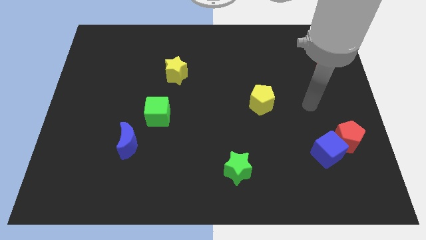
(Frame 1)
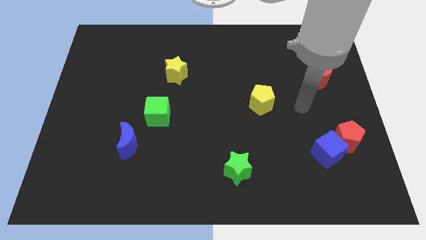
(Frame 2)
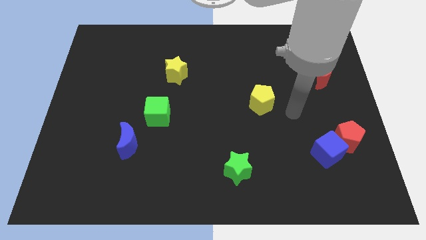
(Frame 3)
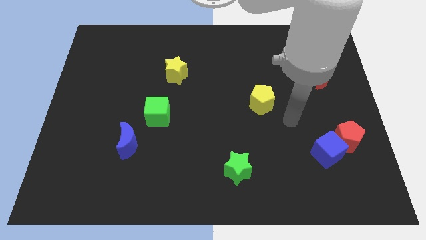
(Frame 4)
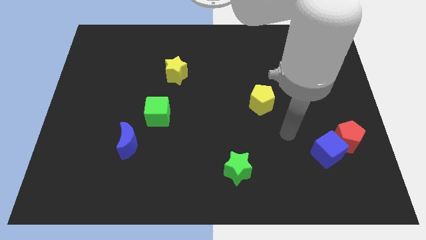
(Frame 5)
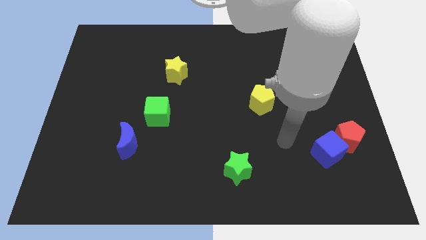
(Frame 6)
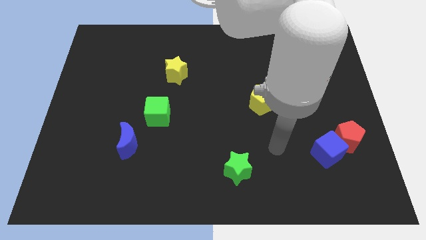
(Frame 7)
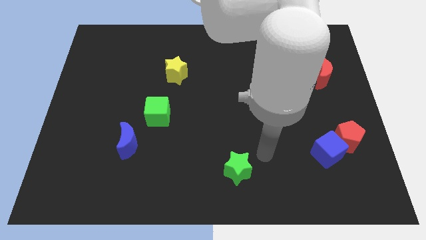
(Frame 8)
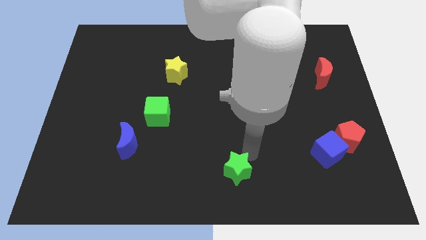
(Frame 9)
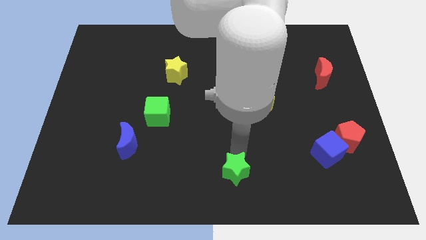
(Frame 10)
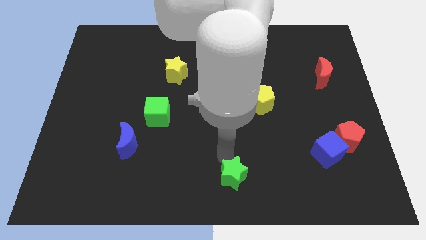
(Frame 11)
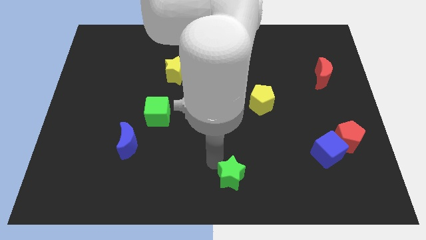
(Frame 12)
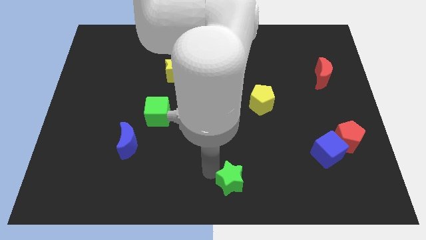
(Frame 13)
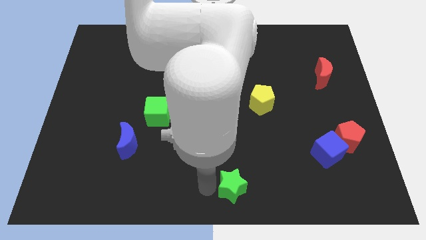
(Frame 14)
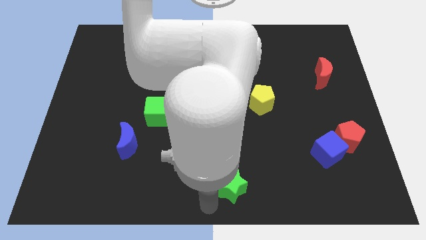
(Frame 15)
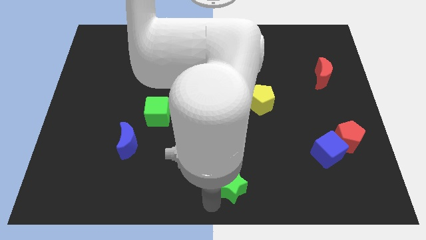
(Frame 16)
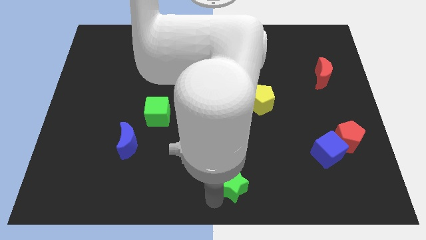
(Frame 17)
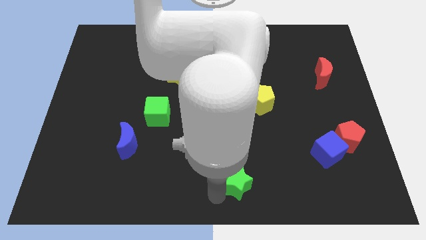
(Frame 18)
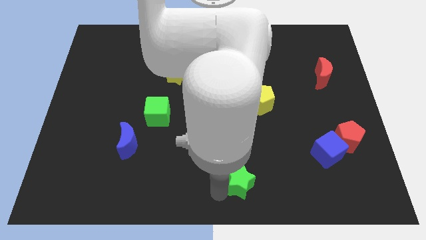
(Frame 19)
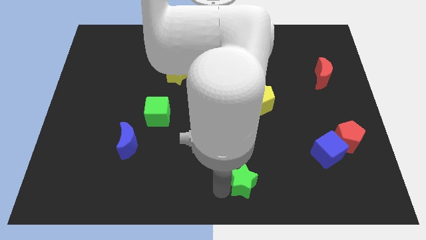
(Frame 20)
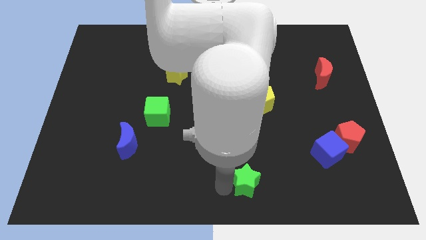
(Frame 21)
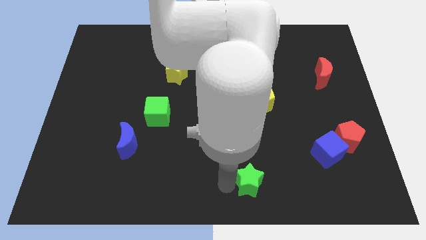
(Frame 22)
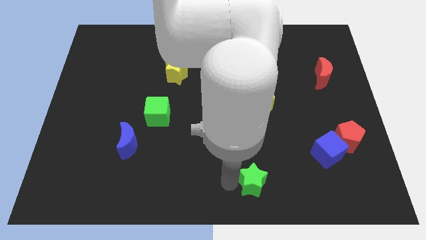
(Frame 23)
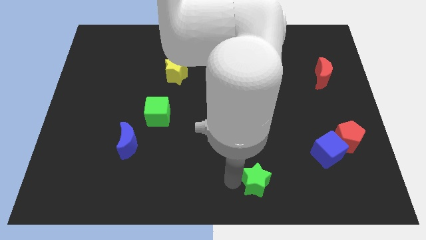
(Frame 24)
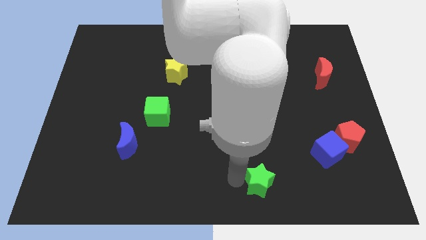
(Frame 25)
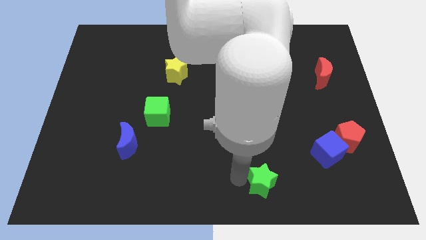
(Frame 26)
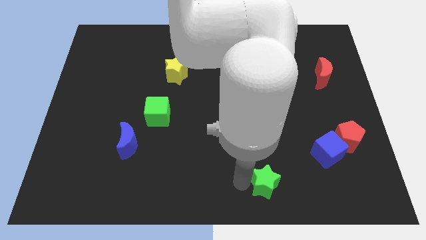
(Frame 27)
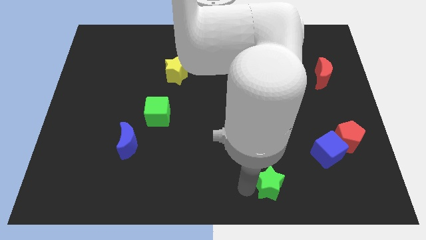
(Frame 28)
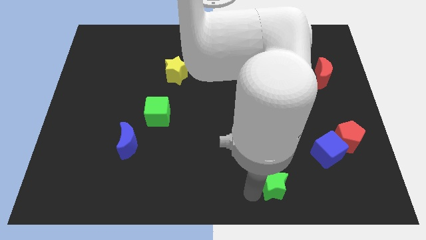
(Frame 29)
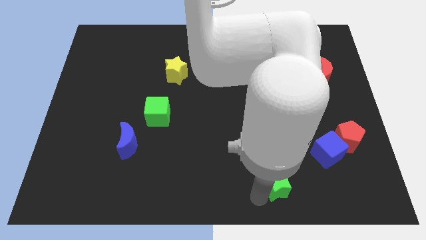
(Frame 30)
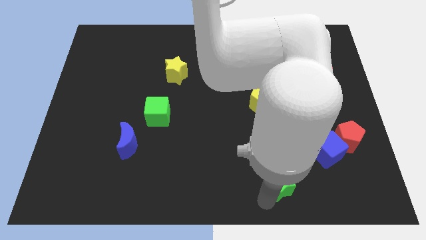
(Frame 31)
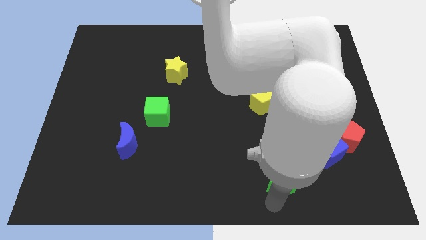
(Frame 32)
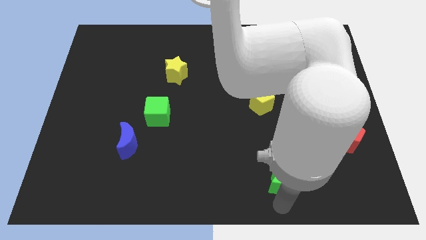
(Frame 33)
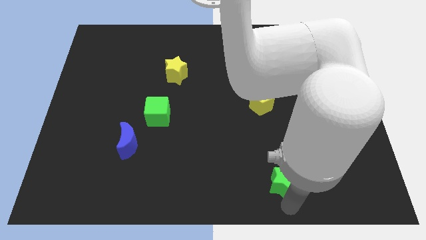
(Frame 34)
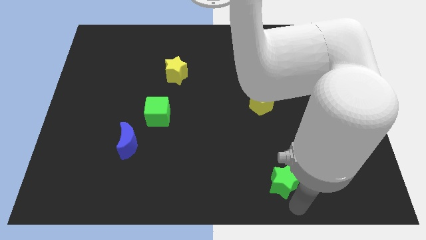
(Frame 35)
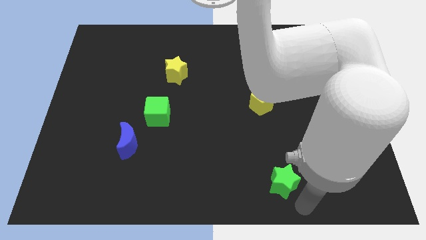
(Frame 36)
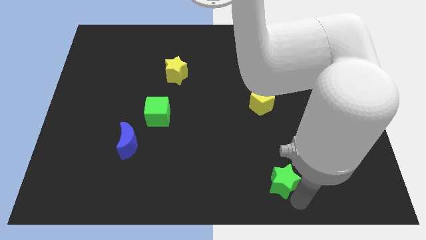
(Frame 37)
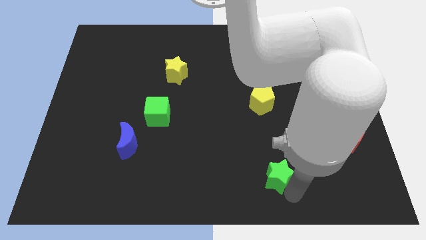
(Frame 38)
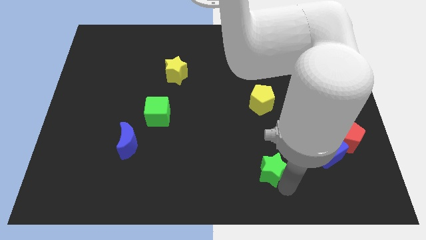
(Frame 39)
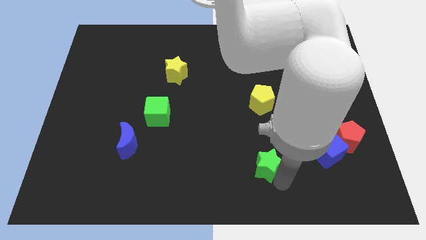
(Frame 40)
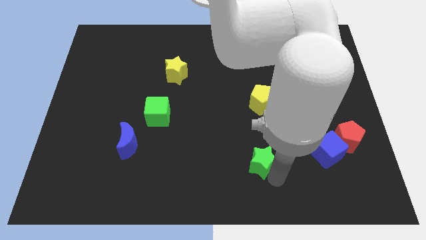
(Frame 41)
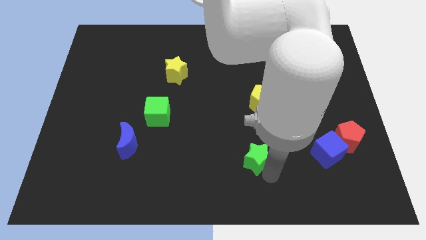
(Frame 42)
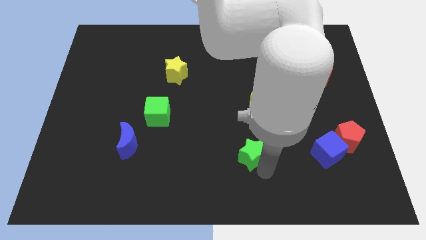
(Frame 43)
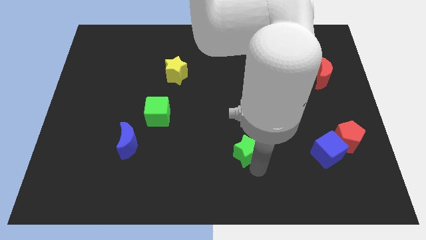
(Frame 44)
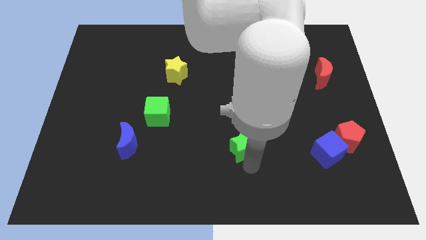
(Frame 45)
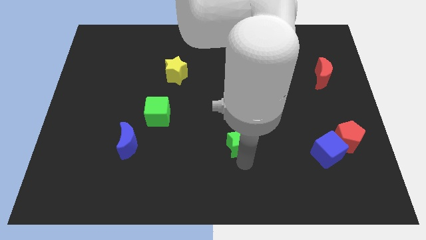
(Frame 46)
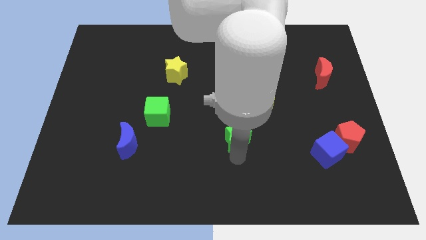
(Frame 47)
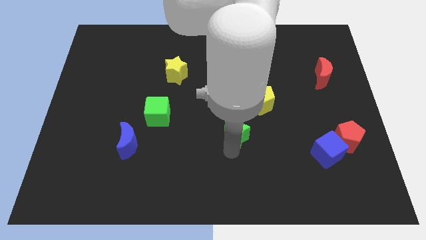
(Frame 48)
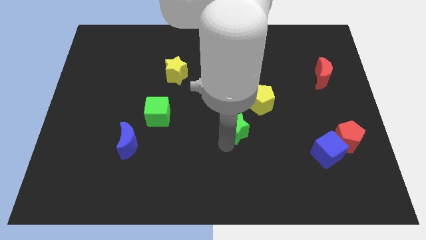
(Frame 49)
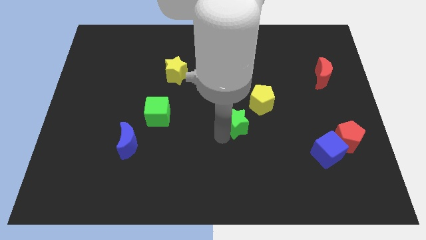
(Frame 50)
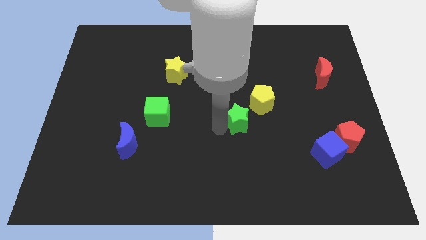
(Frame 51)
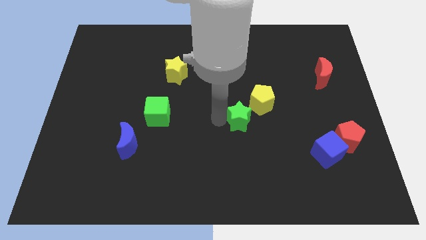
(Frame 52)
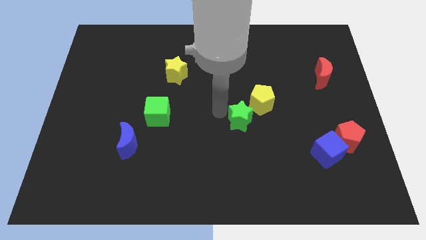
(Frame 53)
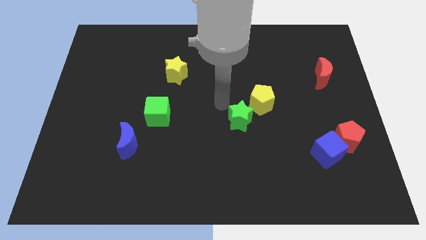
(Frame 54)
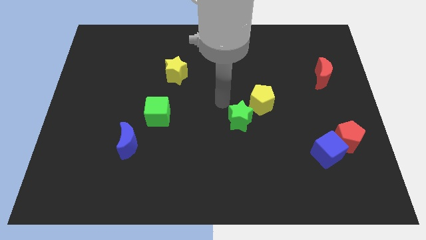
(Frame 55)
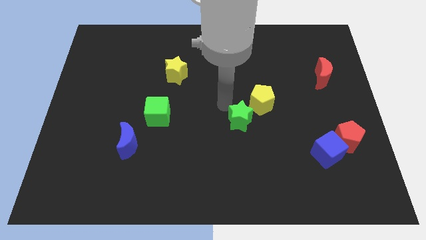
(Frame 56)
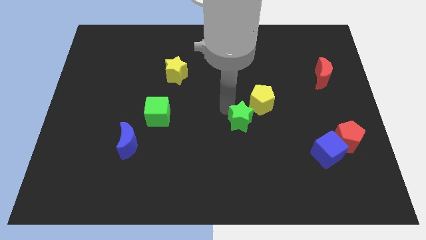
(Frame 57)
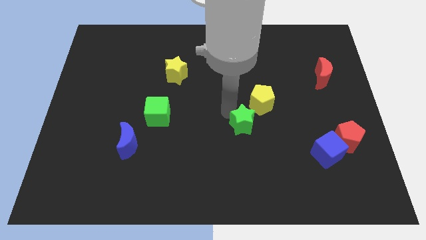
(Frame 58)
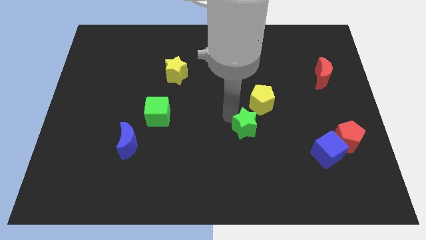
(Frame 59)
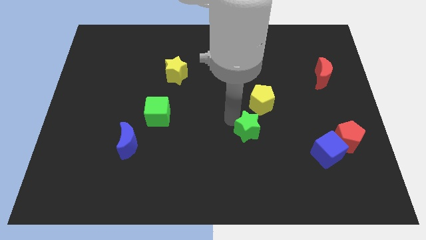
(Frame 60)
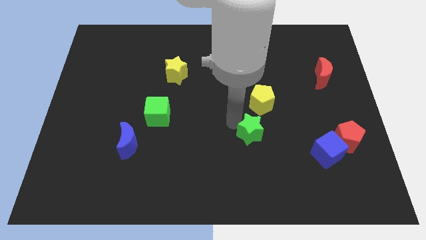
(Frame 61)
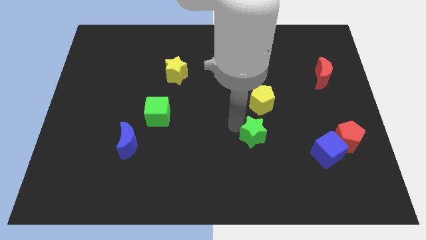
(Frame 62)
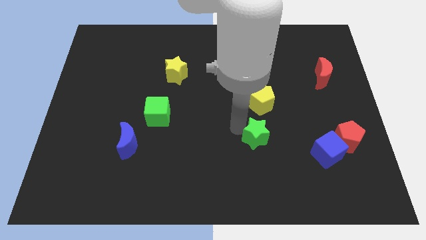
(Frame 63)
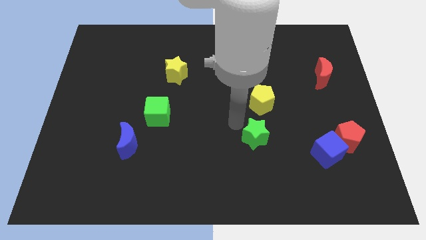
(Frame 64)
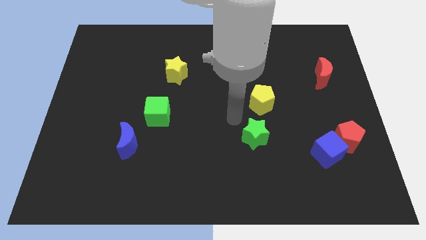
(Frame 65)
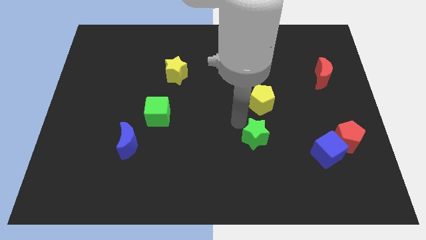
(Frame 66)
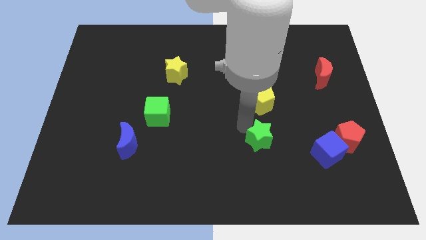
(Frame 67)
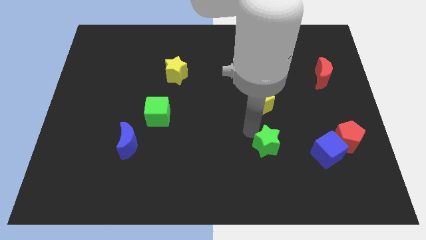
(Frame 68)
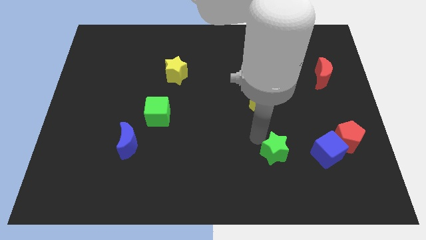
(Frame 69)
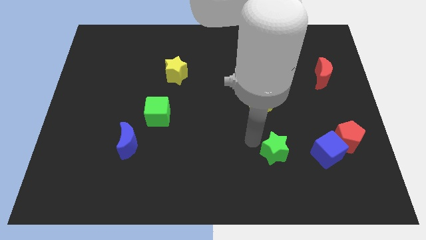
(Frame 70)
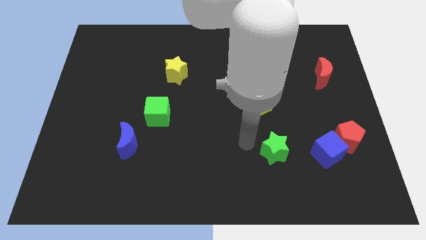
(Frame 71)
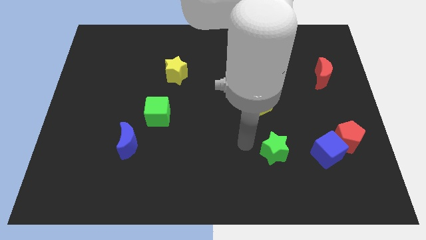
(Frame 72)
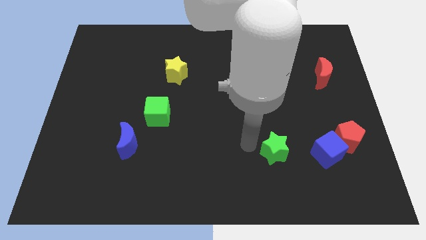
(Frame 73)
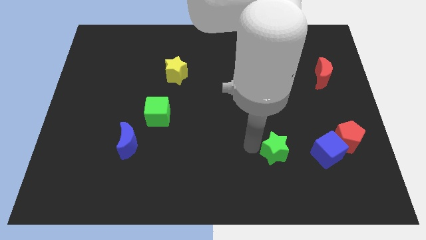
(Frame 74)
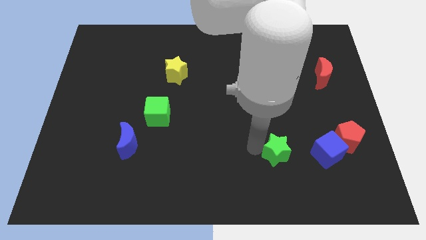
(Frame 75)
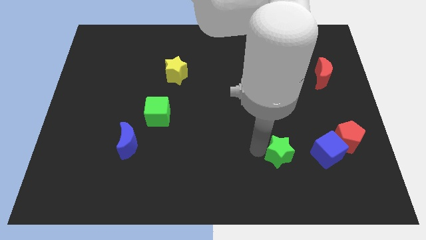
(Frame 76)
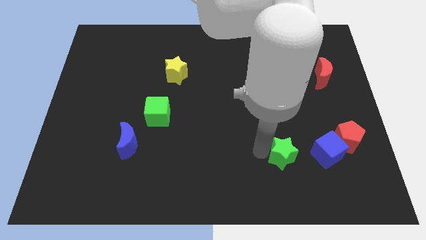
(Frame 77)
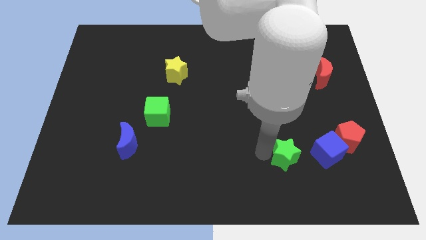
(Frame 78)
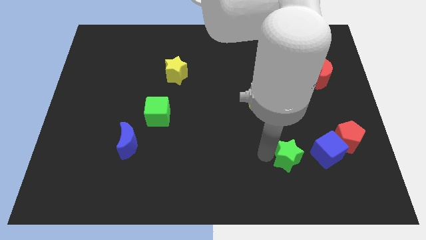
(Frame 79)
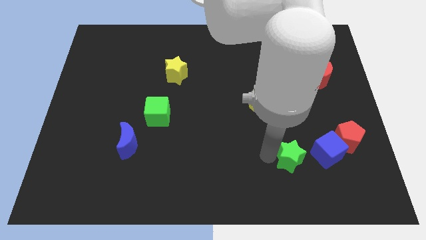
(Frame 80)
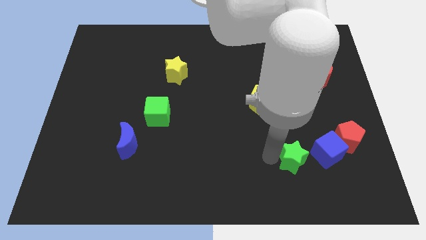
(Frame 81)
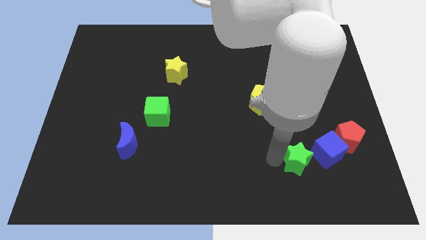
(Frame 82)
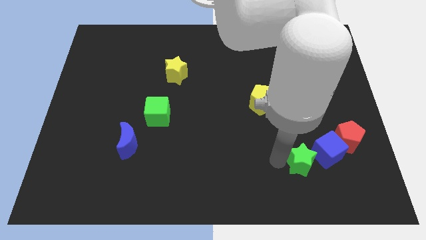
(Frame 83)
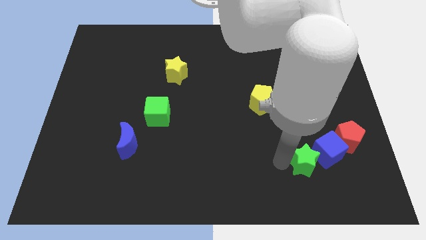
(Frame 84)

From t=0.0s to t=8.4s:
put the green star towards the blue cube
